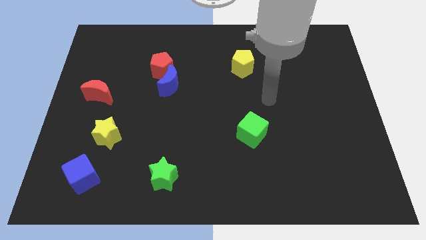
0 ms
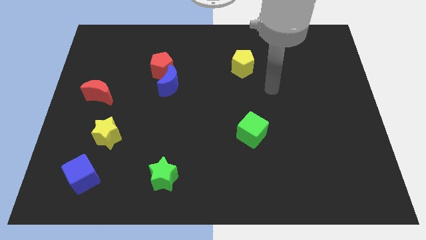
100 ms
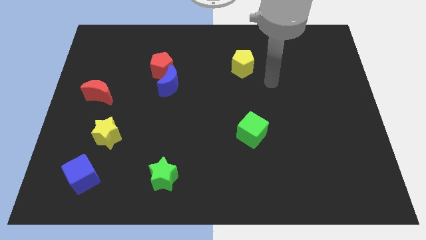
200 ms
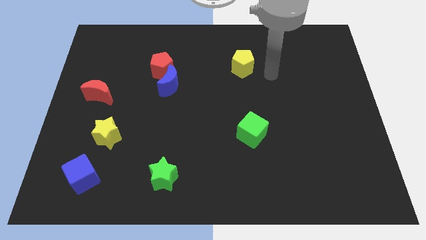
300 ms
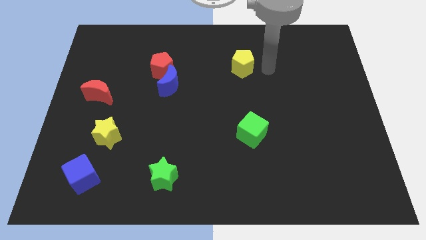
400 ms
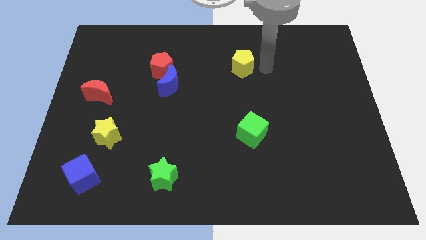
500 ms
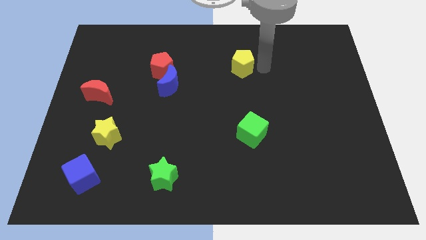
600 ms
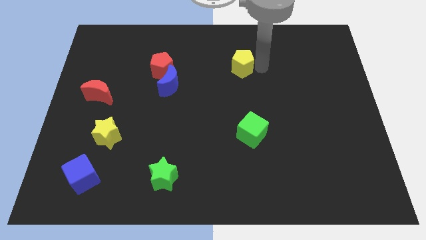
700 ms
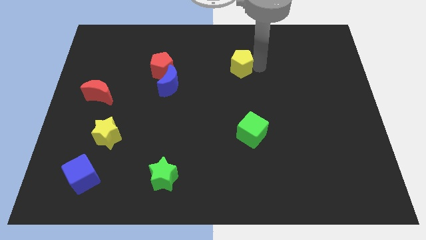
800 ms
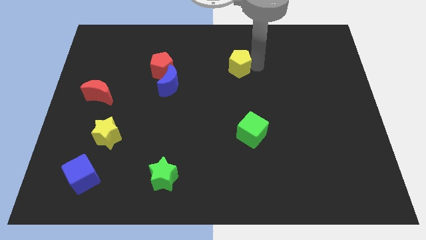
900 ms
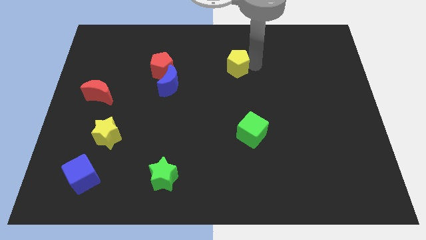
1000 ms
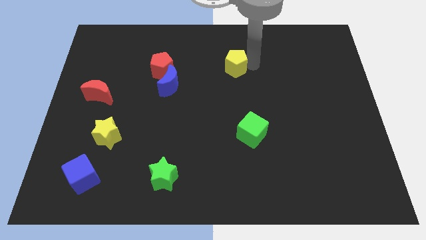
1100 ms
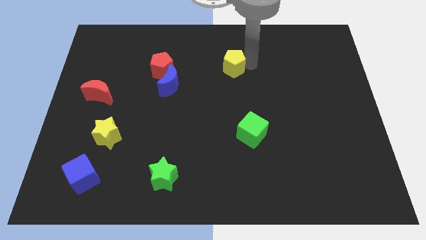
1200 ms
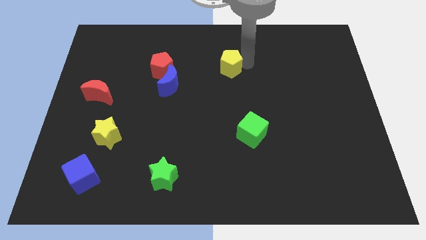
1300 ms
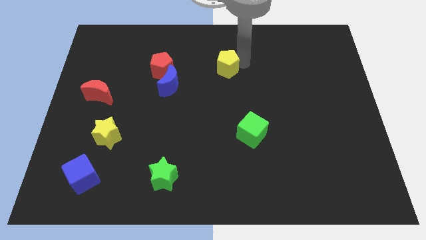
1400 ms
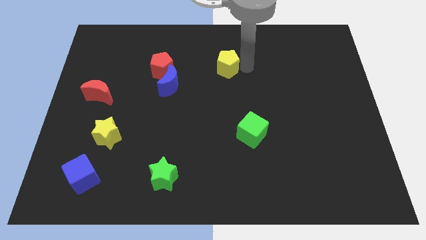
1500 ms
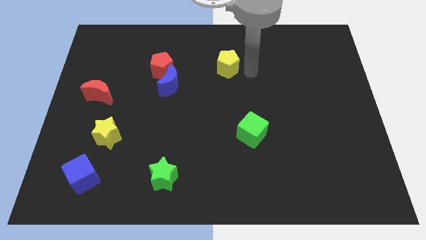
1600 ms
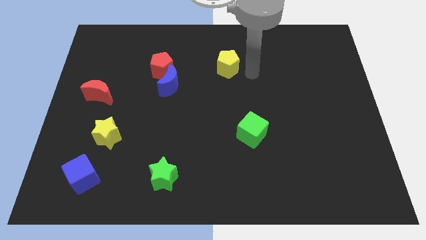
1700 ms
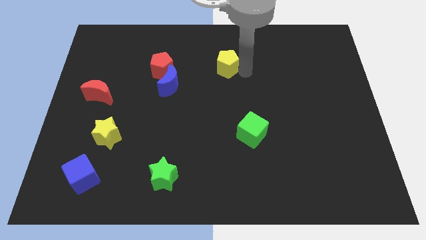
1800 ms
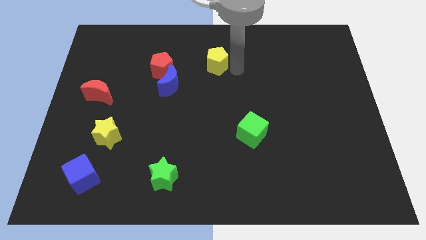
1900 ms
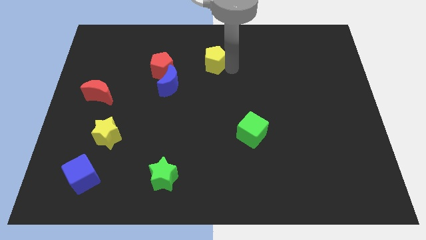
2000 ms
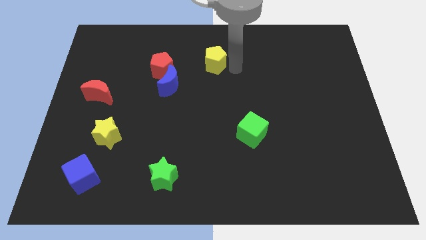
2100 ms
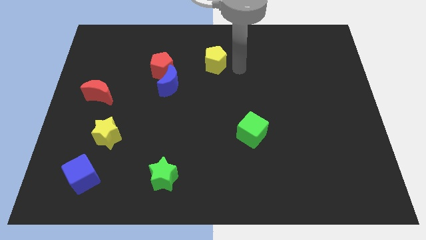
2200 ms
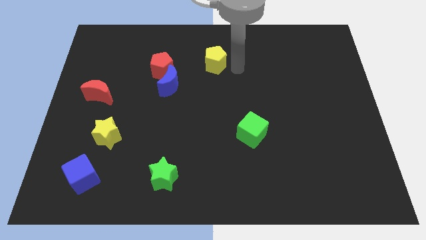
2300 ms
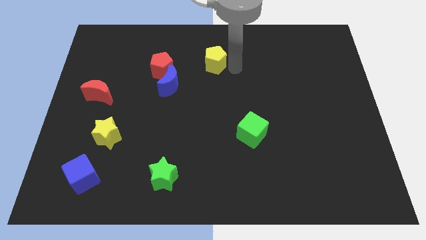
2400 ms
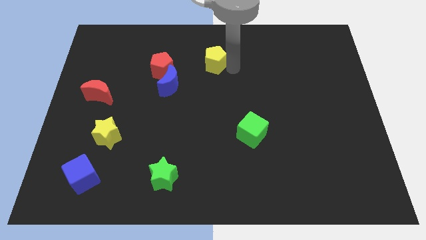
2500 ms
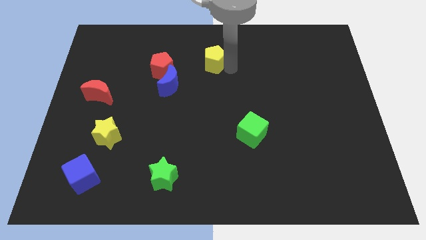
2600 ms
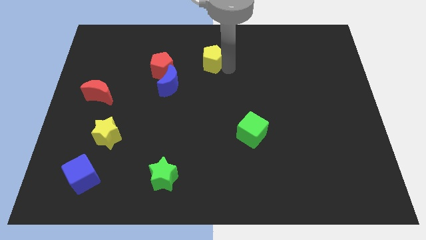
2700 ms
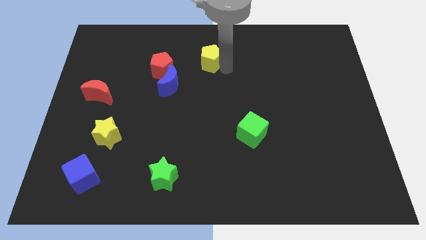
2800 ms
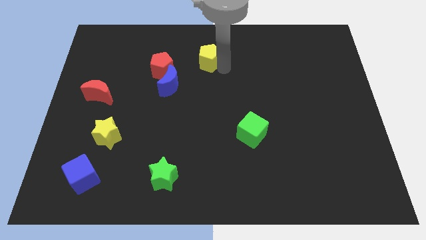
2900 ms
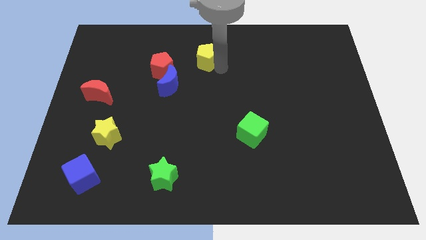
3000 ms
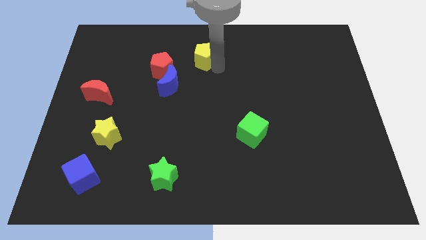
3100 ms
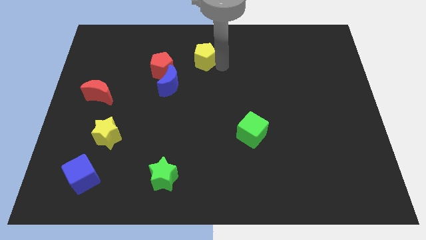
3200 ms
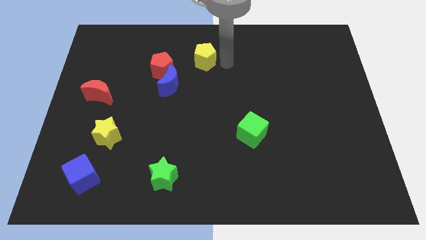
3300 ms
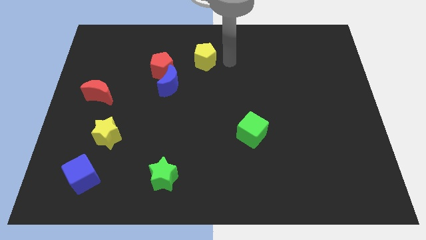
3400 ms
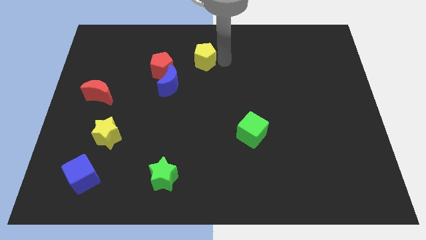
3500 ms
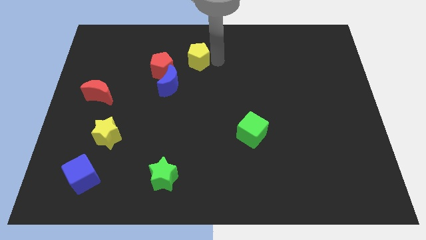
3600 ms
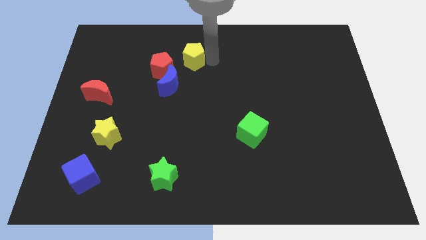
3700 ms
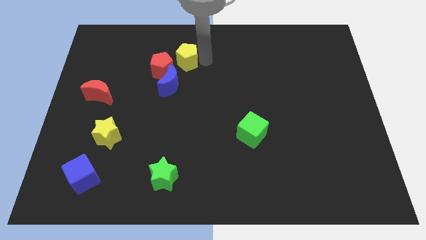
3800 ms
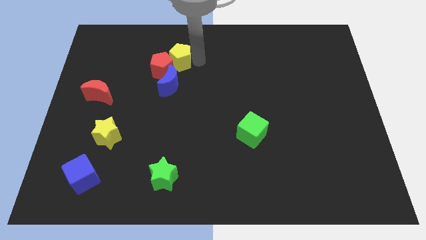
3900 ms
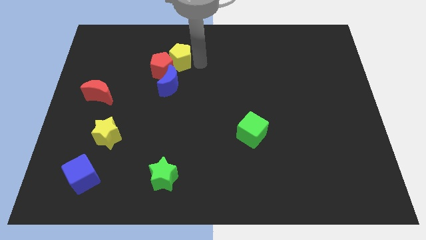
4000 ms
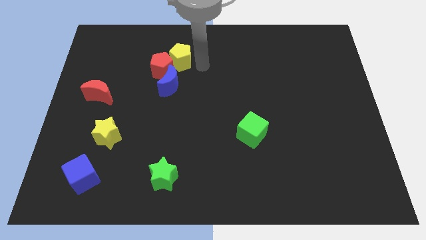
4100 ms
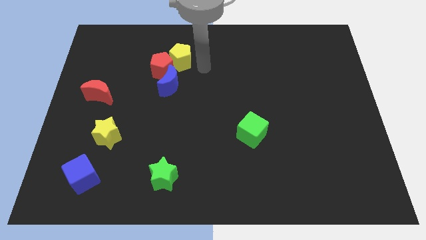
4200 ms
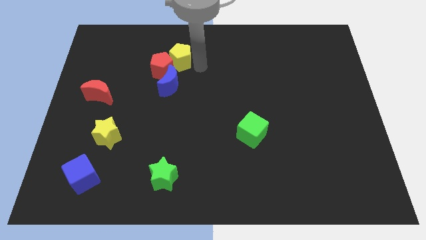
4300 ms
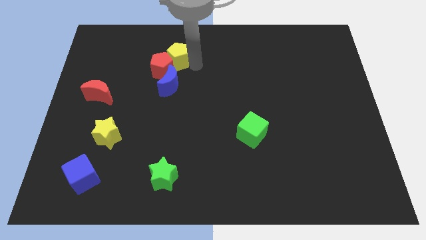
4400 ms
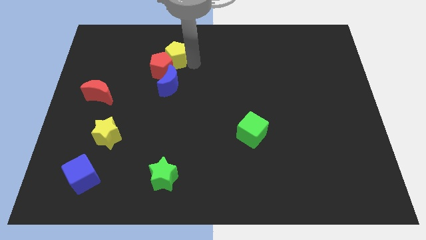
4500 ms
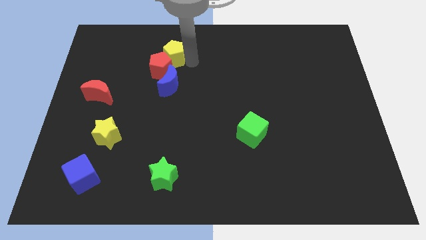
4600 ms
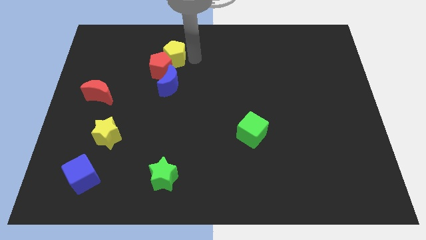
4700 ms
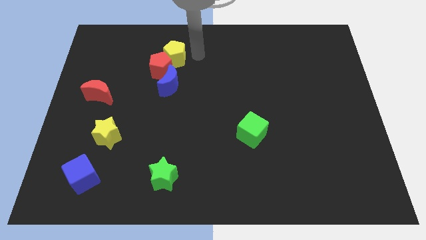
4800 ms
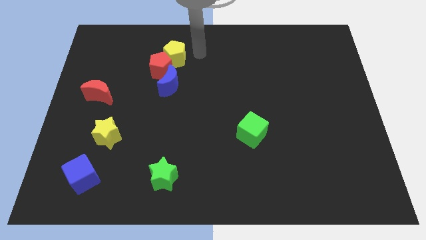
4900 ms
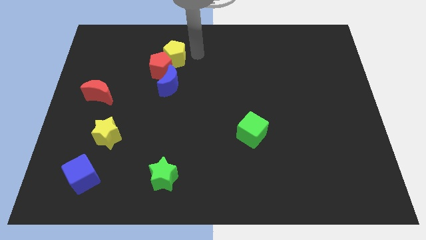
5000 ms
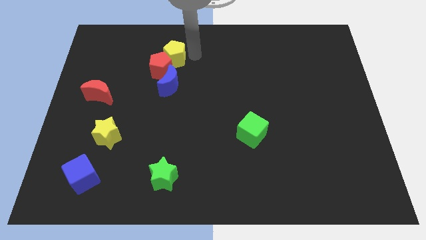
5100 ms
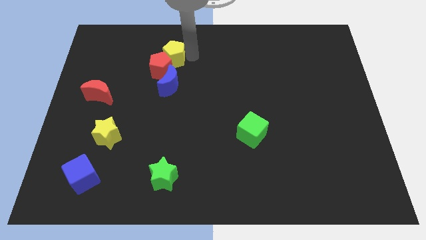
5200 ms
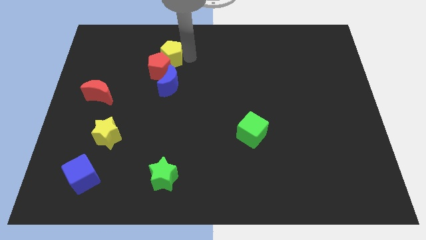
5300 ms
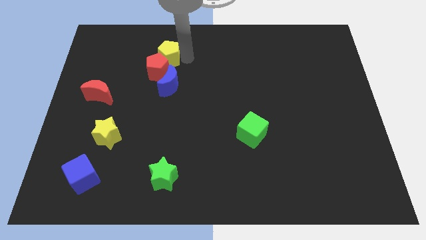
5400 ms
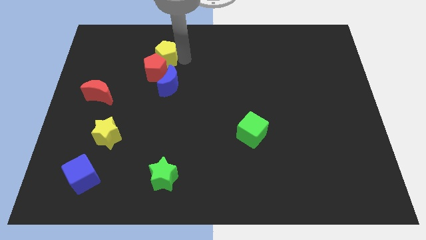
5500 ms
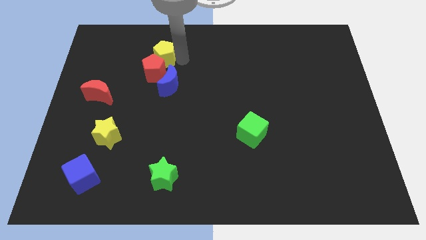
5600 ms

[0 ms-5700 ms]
push the yellow pentagon left

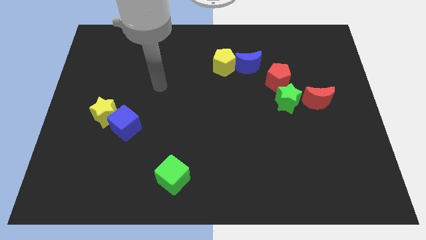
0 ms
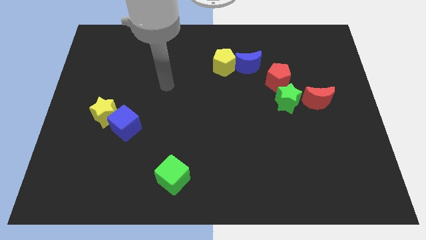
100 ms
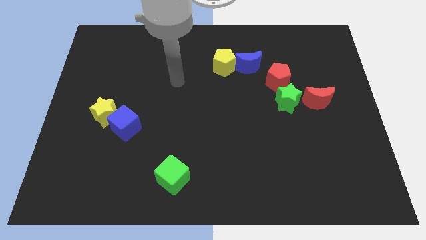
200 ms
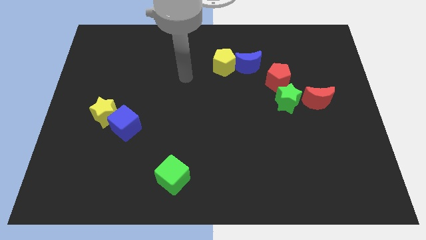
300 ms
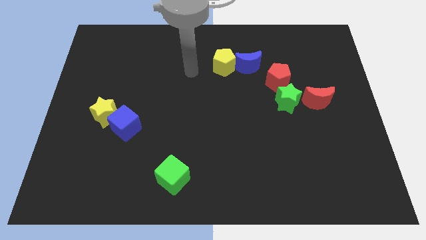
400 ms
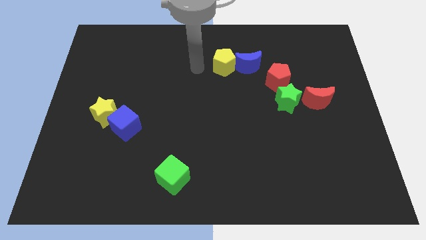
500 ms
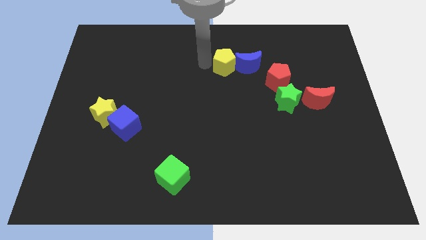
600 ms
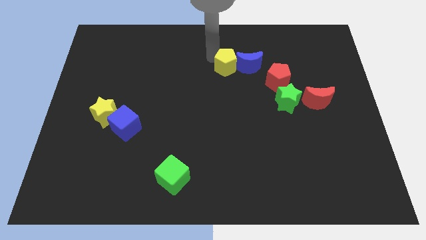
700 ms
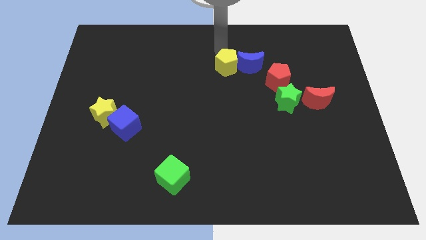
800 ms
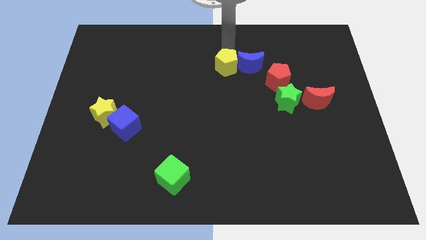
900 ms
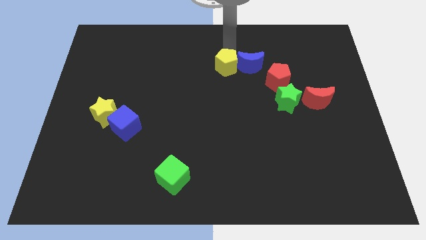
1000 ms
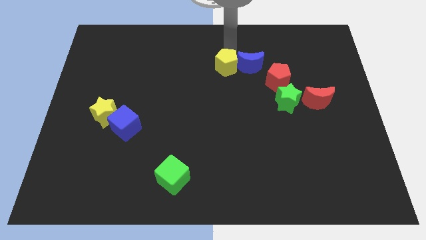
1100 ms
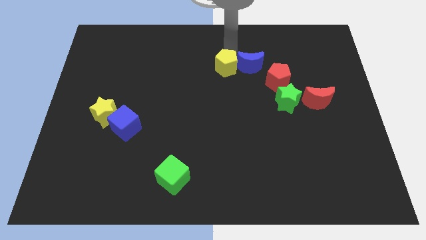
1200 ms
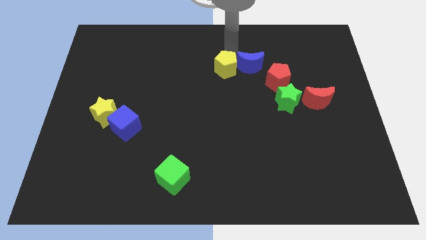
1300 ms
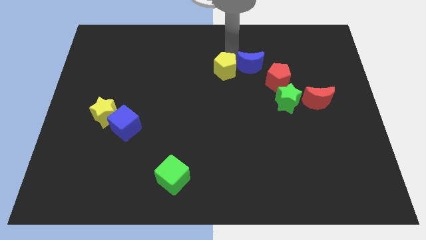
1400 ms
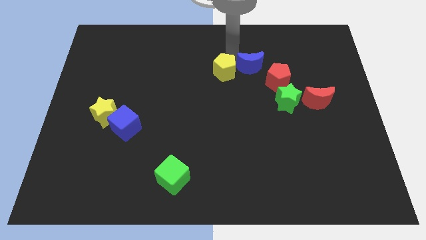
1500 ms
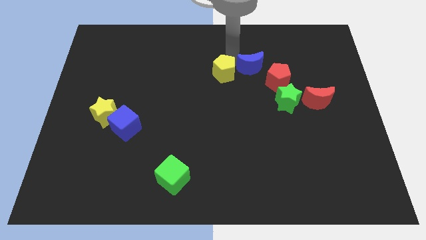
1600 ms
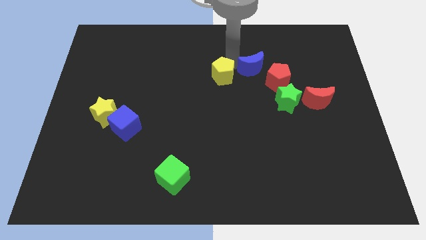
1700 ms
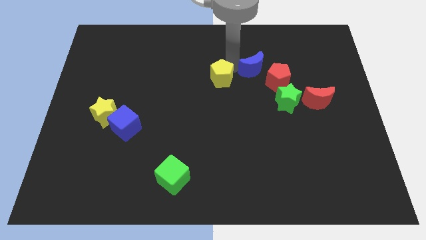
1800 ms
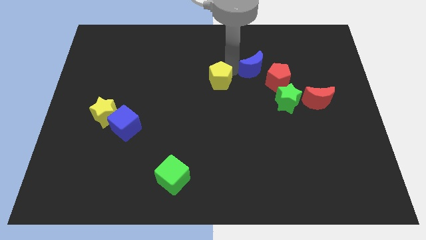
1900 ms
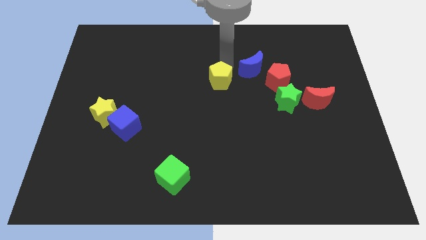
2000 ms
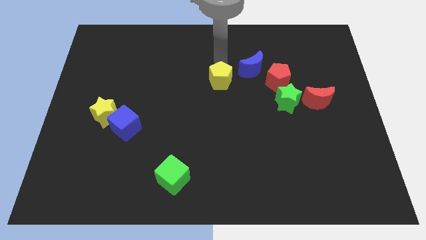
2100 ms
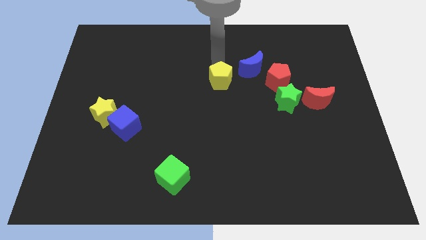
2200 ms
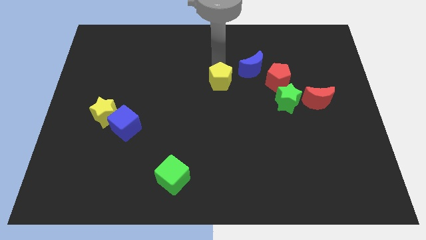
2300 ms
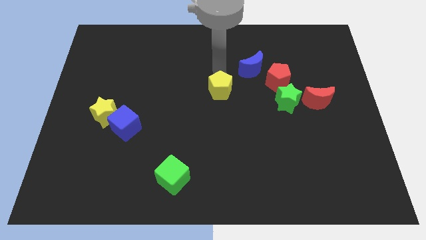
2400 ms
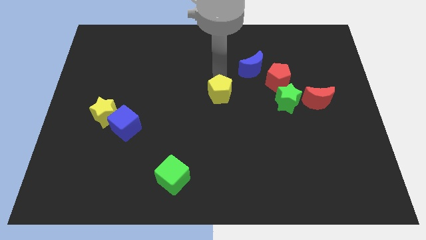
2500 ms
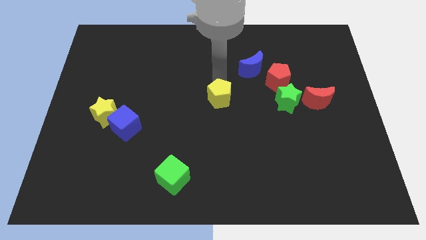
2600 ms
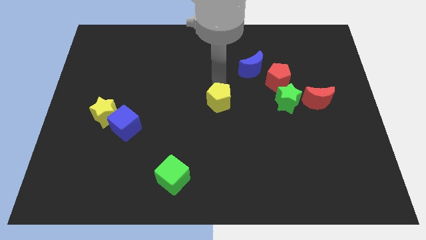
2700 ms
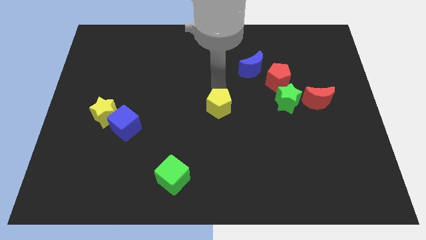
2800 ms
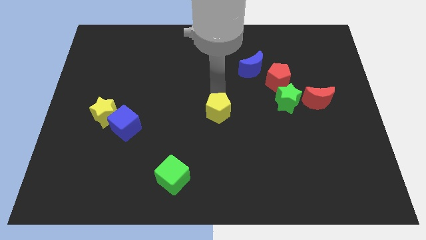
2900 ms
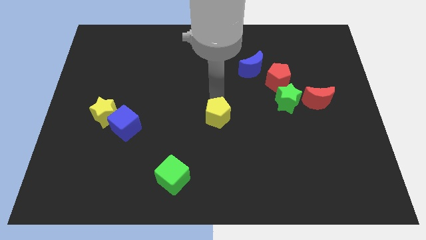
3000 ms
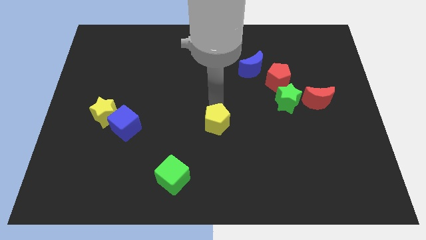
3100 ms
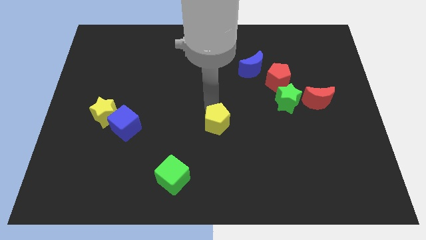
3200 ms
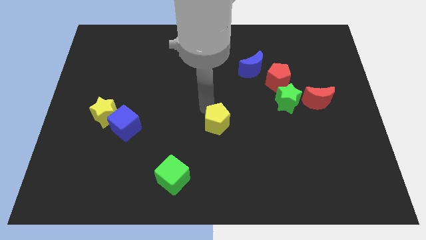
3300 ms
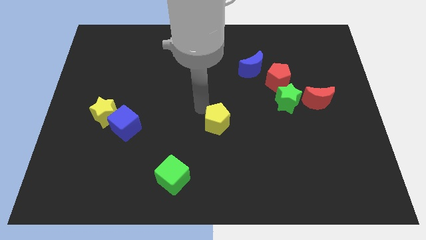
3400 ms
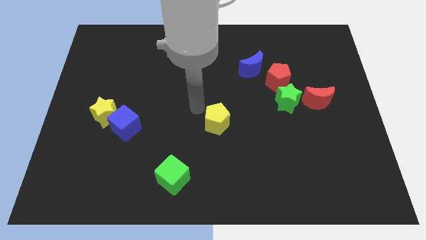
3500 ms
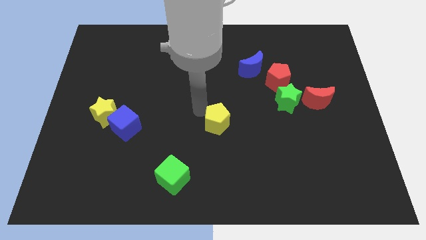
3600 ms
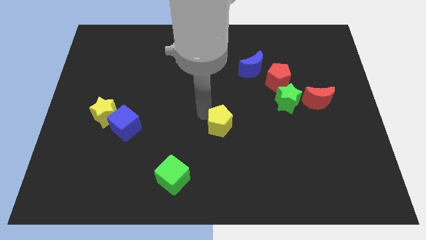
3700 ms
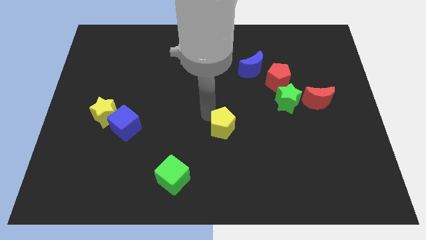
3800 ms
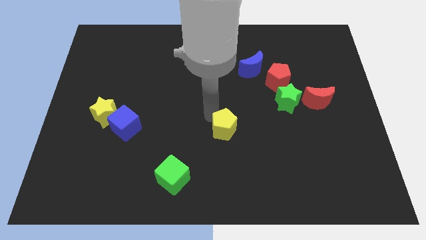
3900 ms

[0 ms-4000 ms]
move the yellow pentagon downwards
